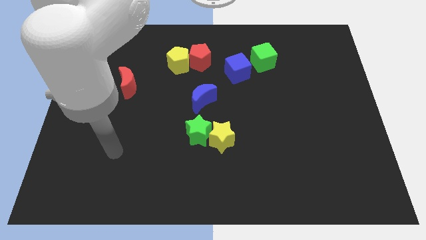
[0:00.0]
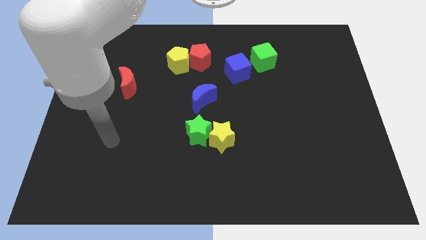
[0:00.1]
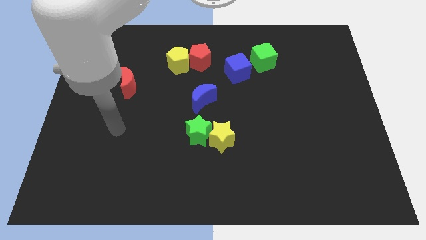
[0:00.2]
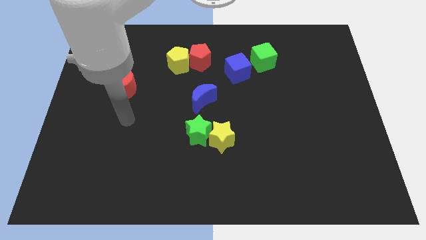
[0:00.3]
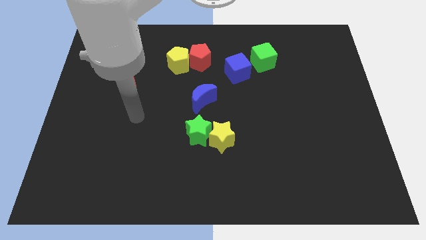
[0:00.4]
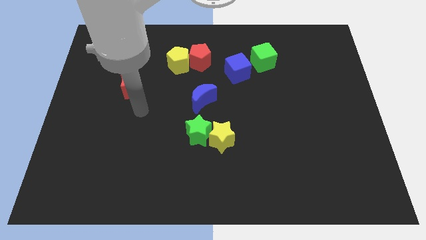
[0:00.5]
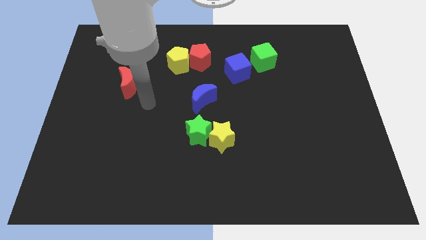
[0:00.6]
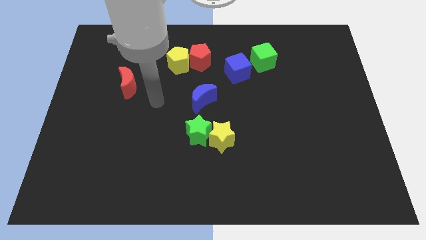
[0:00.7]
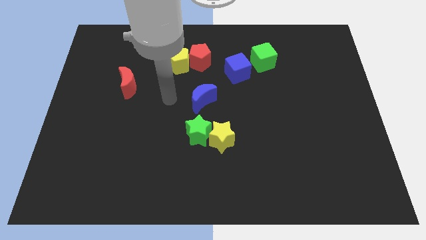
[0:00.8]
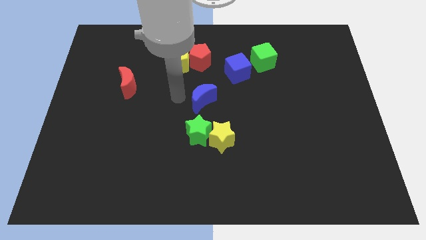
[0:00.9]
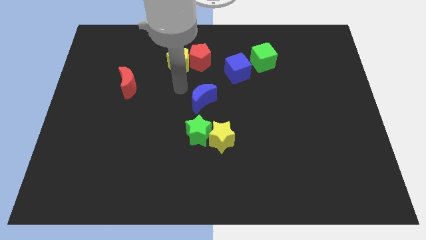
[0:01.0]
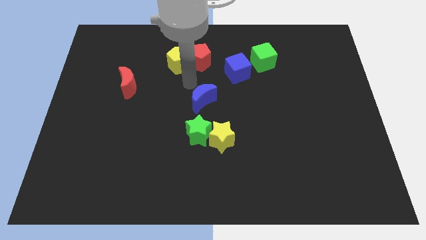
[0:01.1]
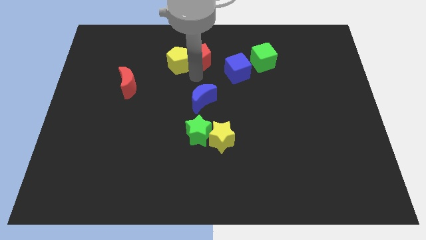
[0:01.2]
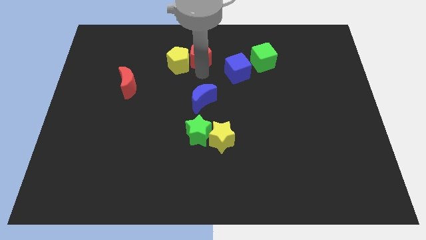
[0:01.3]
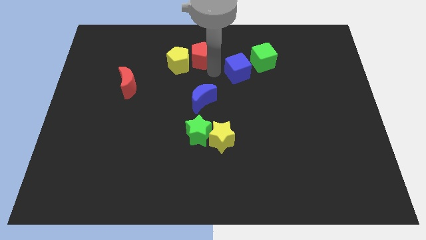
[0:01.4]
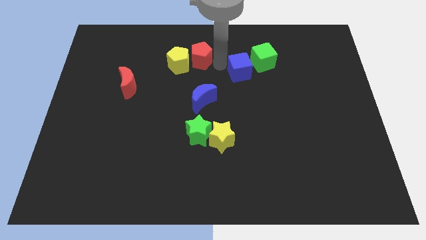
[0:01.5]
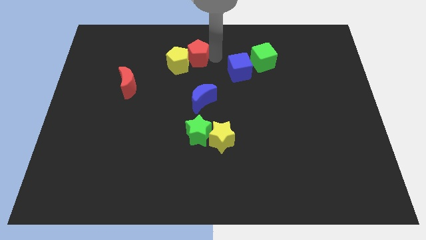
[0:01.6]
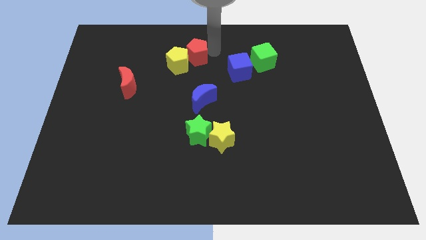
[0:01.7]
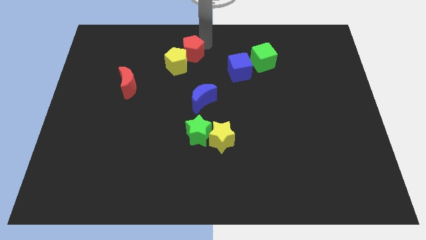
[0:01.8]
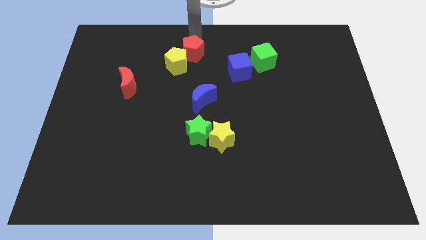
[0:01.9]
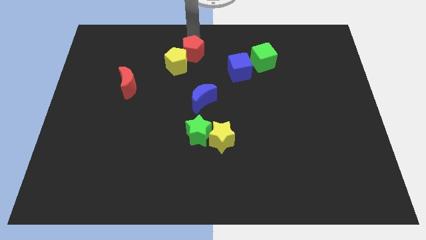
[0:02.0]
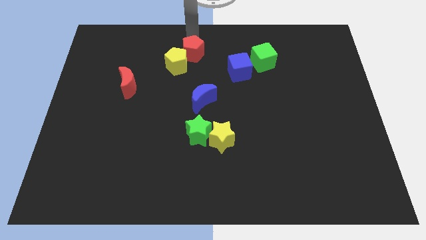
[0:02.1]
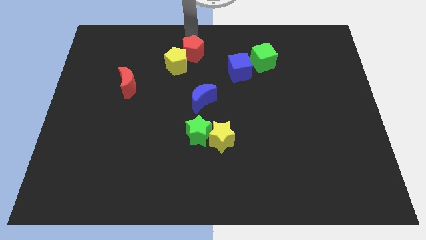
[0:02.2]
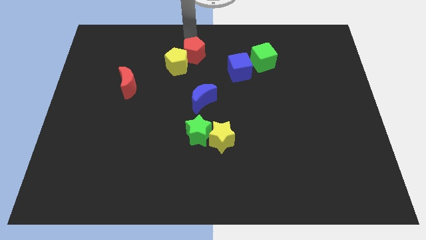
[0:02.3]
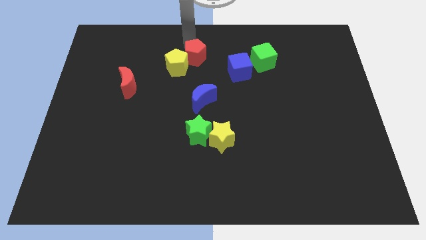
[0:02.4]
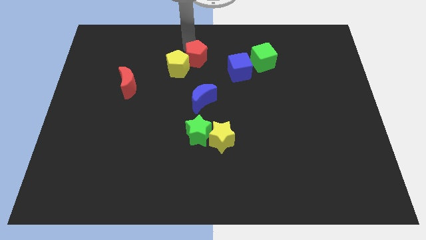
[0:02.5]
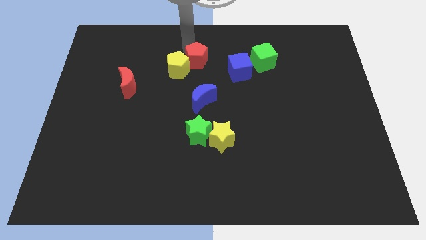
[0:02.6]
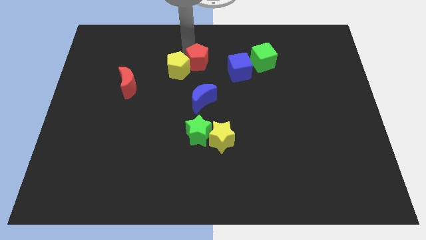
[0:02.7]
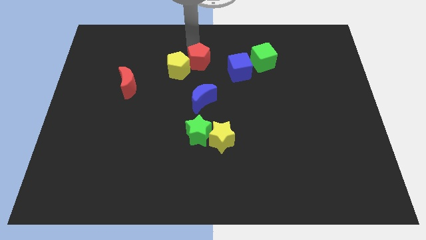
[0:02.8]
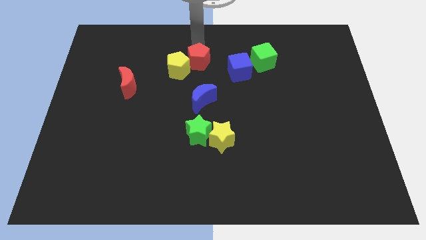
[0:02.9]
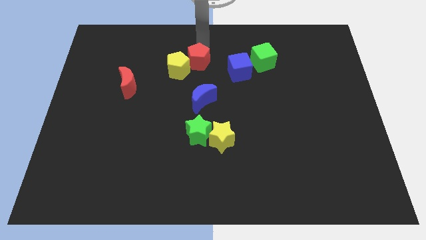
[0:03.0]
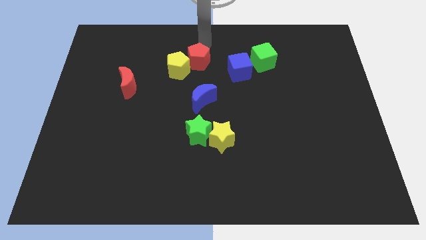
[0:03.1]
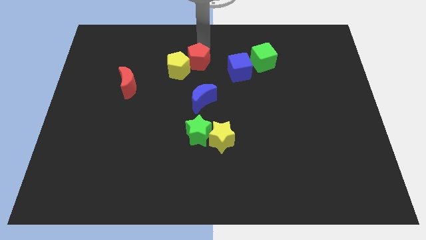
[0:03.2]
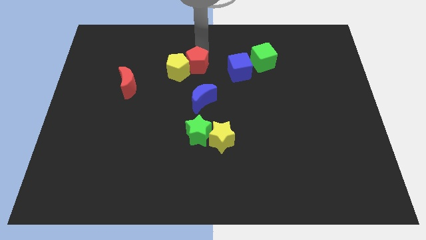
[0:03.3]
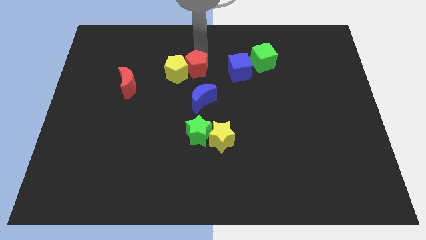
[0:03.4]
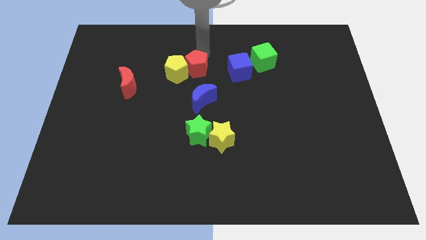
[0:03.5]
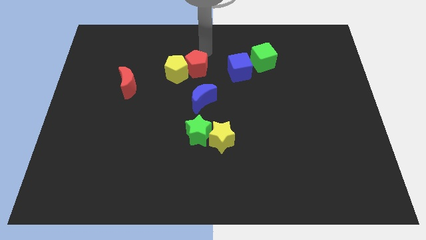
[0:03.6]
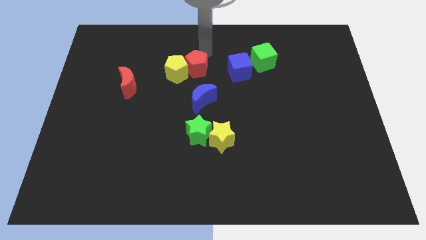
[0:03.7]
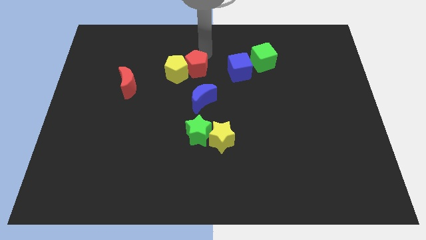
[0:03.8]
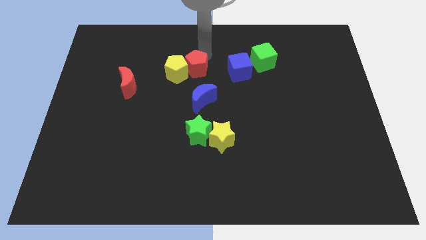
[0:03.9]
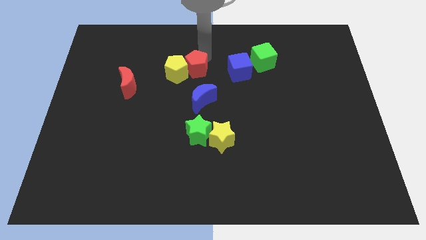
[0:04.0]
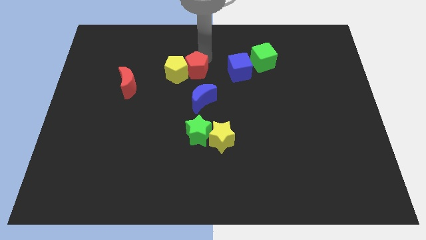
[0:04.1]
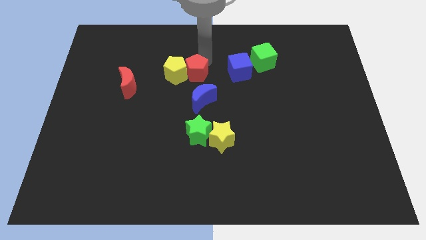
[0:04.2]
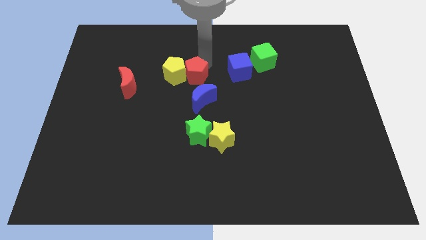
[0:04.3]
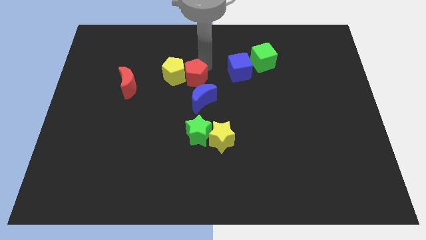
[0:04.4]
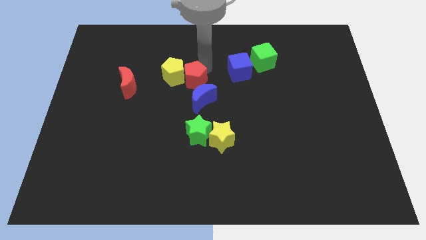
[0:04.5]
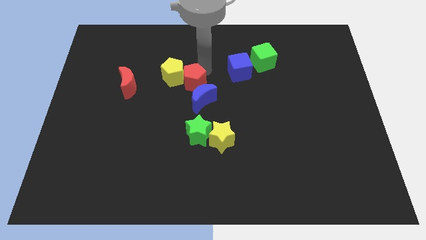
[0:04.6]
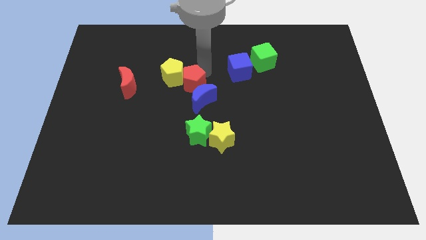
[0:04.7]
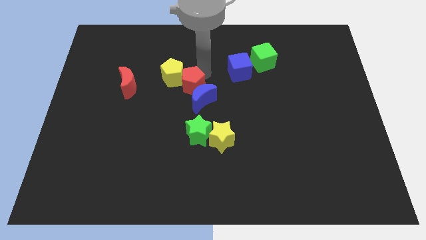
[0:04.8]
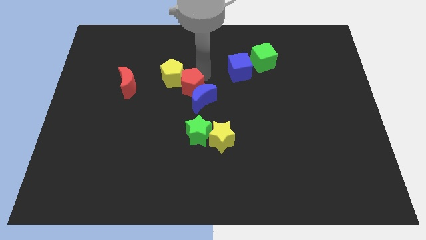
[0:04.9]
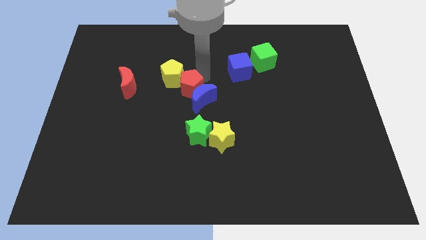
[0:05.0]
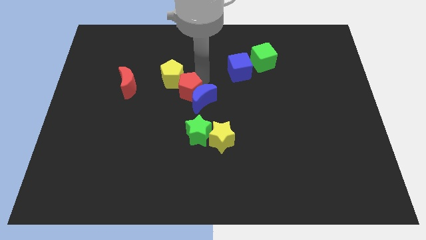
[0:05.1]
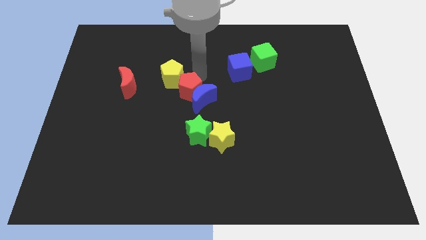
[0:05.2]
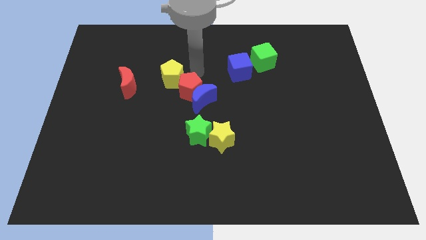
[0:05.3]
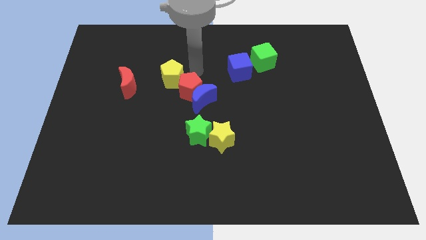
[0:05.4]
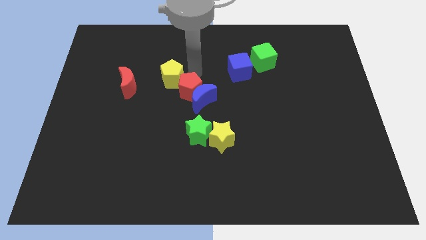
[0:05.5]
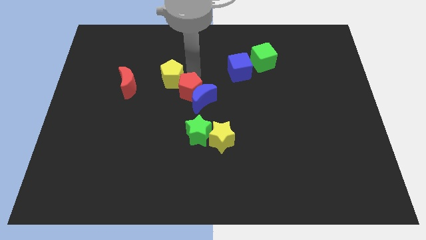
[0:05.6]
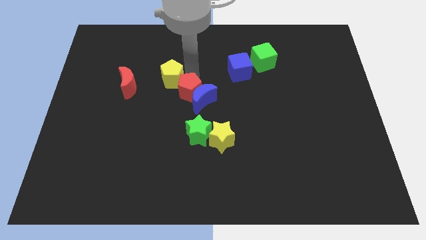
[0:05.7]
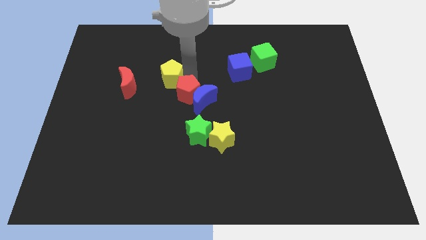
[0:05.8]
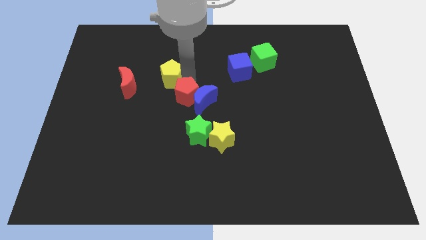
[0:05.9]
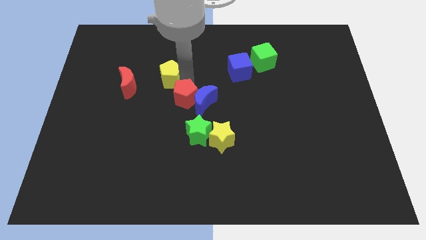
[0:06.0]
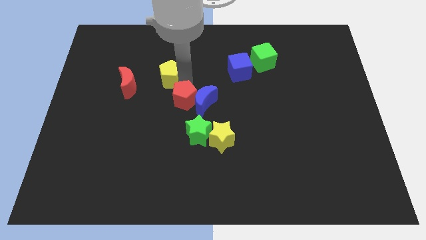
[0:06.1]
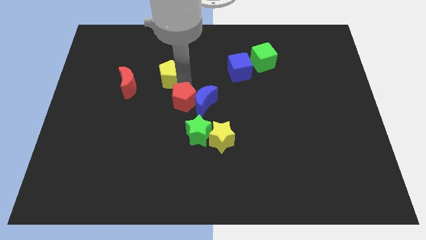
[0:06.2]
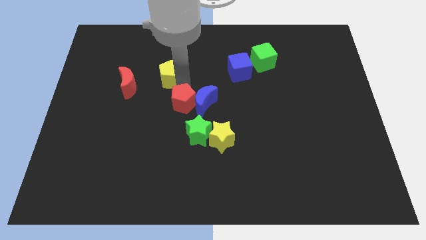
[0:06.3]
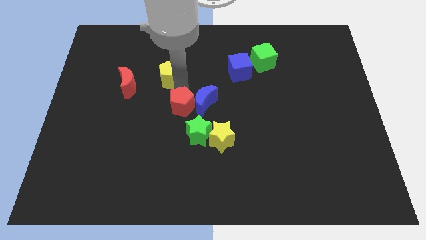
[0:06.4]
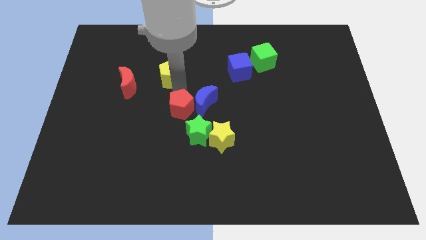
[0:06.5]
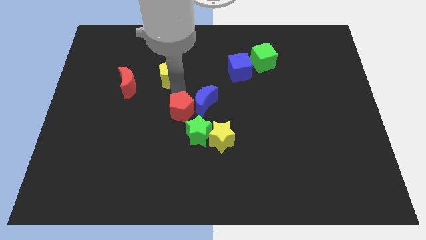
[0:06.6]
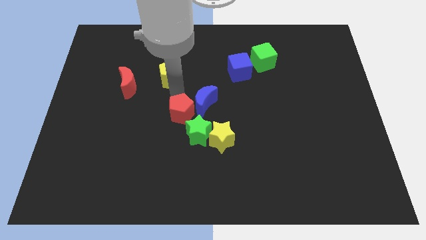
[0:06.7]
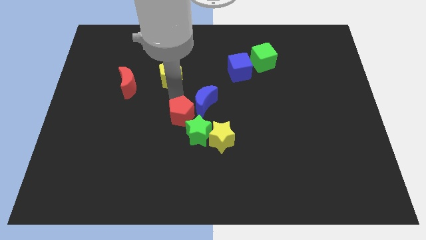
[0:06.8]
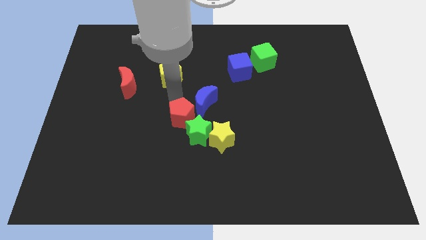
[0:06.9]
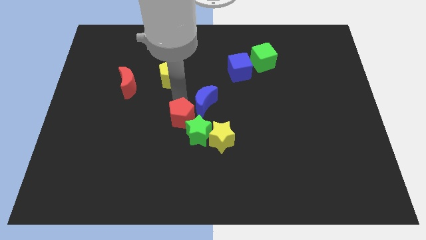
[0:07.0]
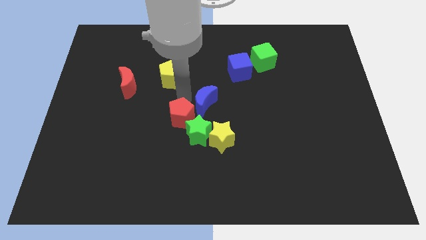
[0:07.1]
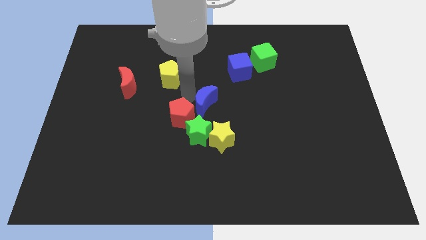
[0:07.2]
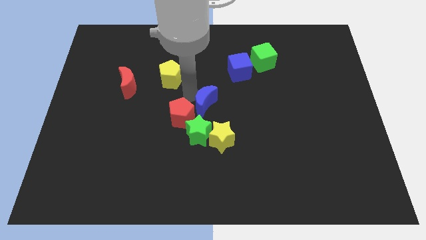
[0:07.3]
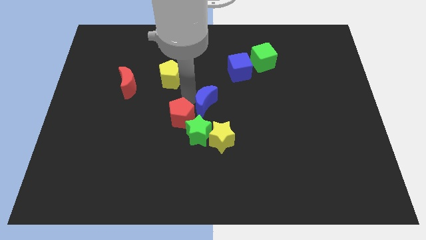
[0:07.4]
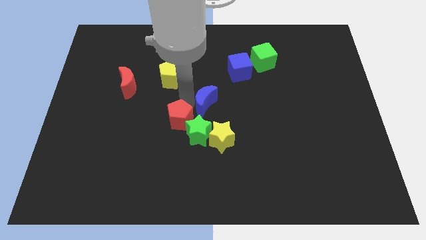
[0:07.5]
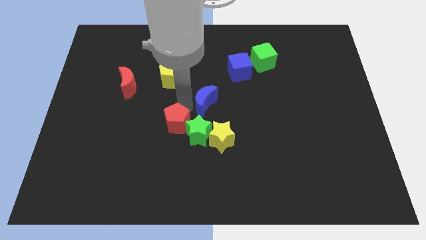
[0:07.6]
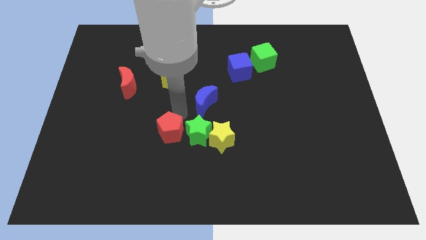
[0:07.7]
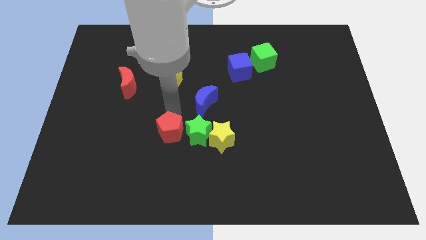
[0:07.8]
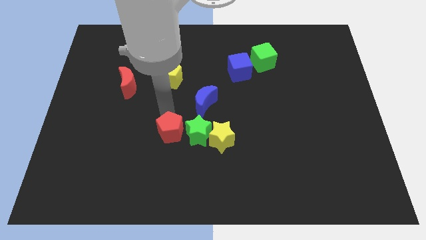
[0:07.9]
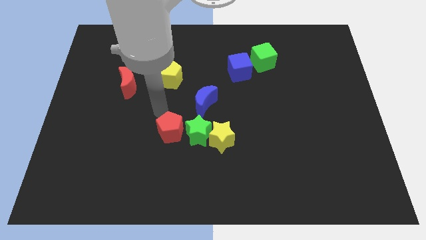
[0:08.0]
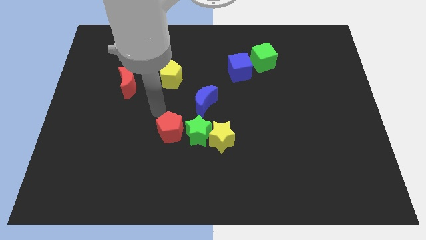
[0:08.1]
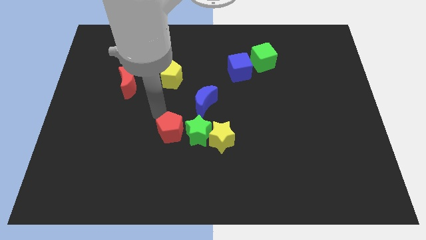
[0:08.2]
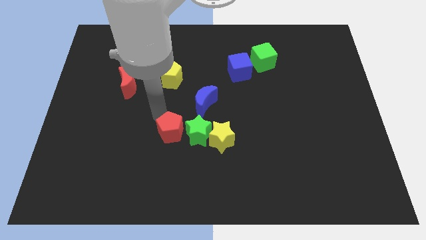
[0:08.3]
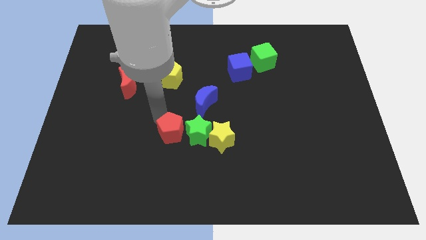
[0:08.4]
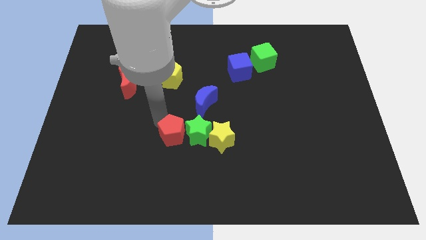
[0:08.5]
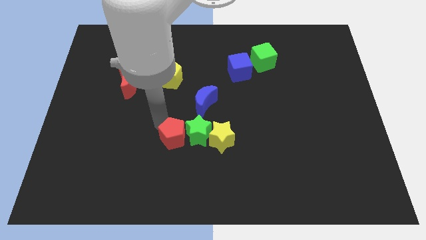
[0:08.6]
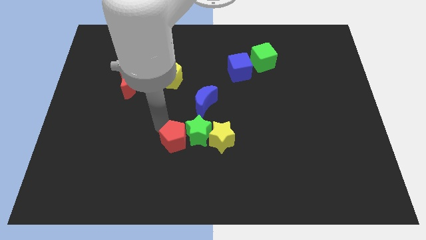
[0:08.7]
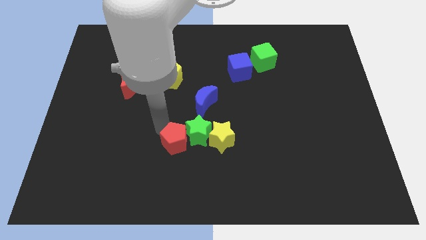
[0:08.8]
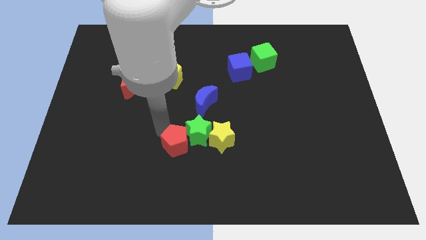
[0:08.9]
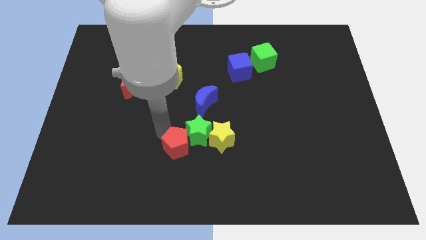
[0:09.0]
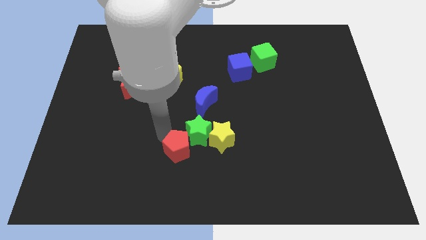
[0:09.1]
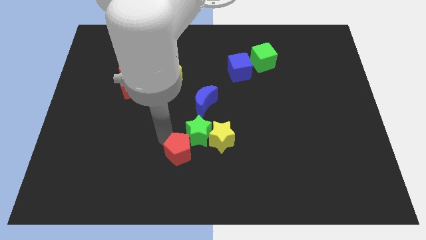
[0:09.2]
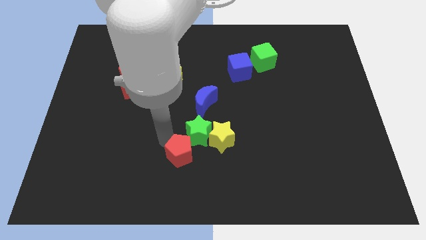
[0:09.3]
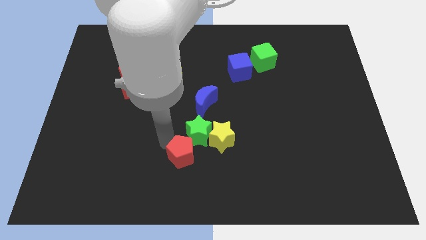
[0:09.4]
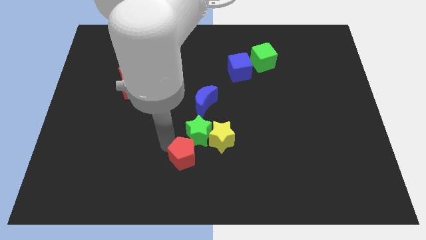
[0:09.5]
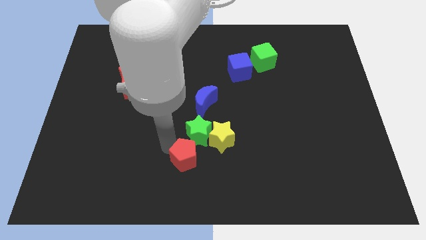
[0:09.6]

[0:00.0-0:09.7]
slide the red pentagon to the bottom side
